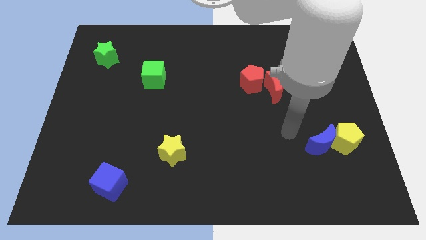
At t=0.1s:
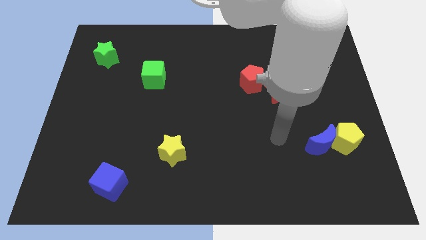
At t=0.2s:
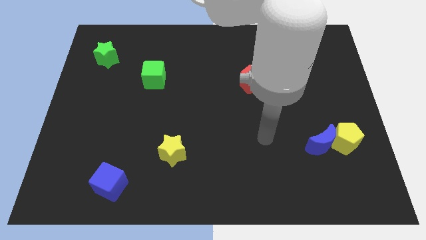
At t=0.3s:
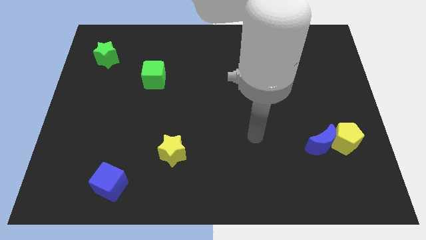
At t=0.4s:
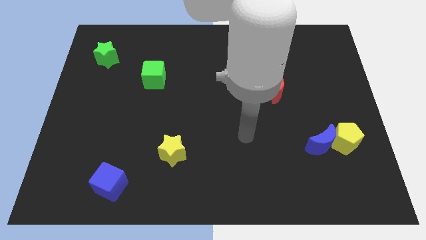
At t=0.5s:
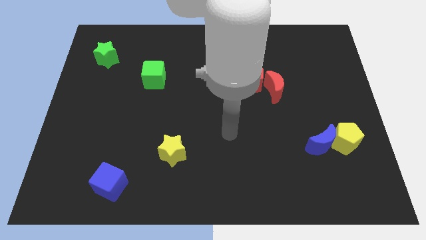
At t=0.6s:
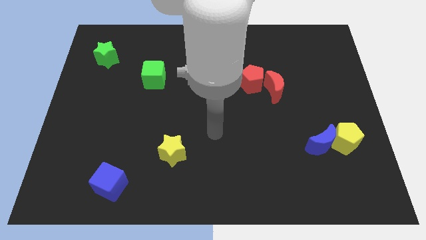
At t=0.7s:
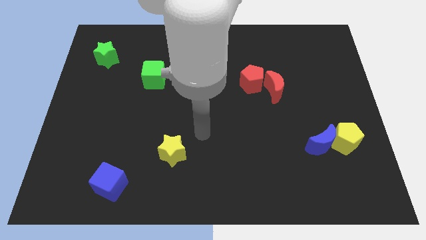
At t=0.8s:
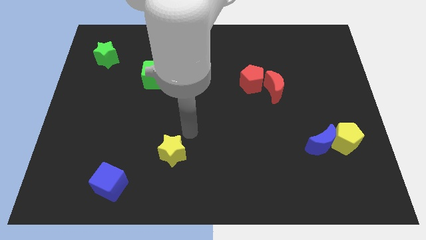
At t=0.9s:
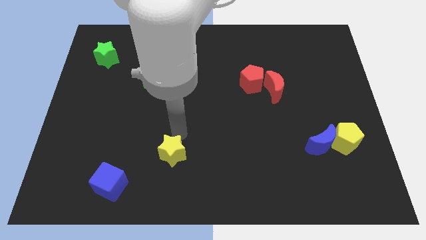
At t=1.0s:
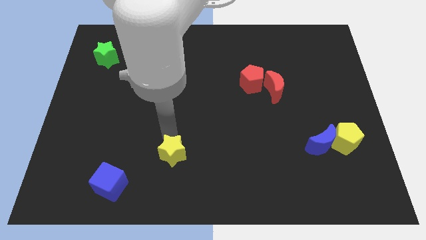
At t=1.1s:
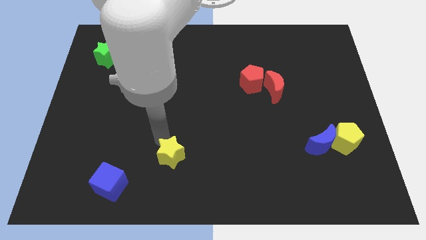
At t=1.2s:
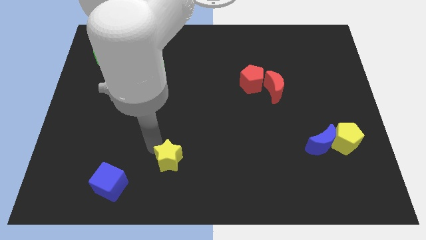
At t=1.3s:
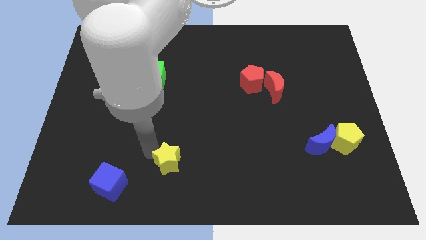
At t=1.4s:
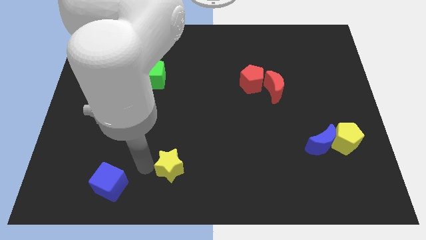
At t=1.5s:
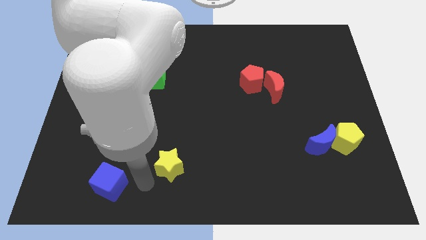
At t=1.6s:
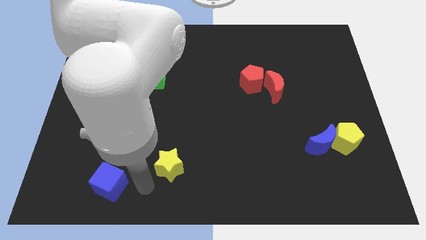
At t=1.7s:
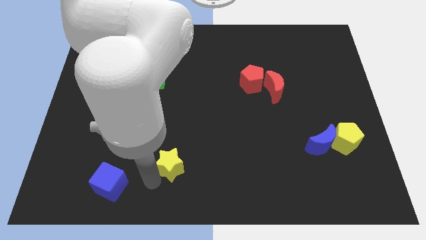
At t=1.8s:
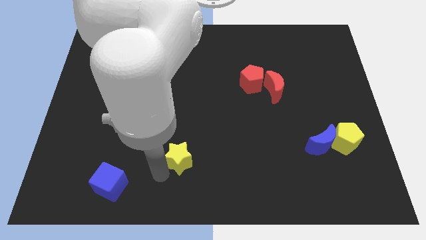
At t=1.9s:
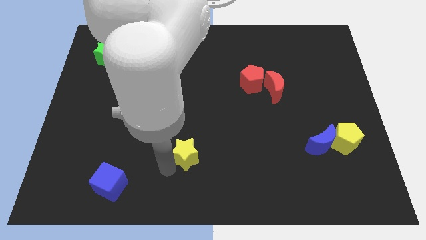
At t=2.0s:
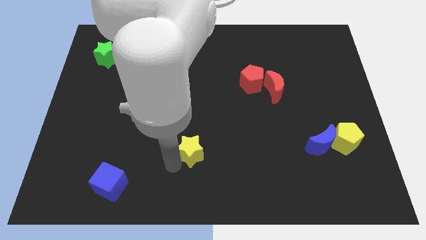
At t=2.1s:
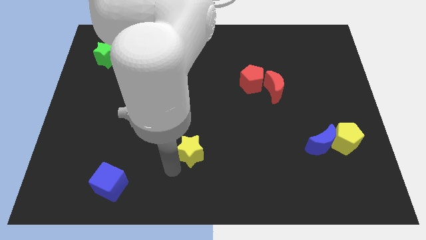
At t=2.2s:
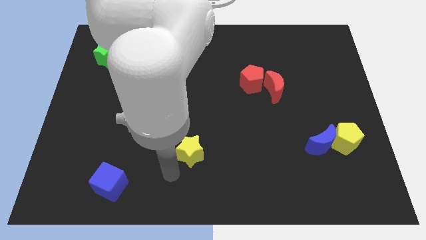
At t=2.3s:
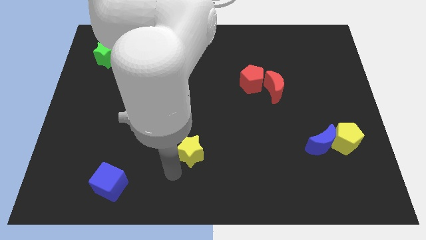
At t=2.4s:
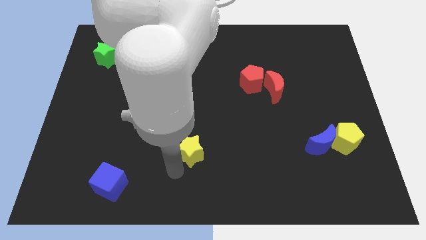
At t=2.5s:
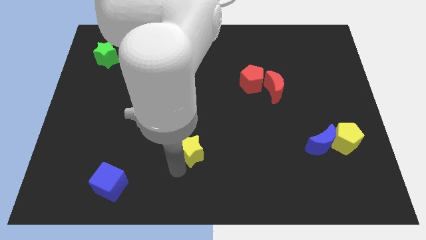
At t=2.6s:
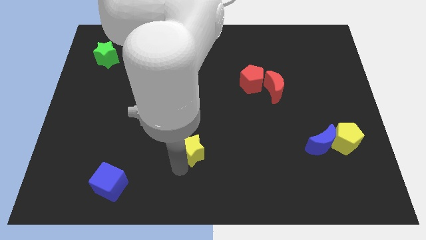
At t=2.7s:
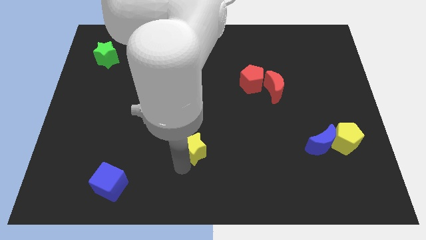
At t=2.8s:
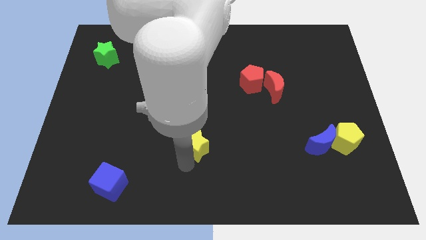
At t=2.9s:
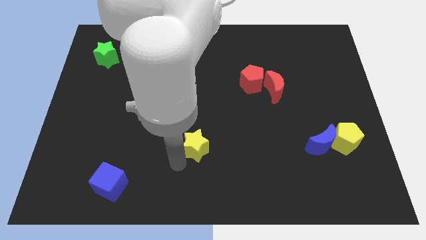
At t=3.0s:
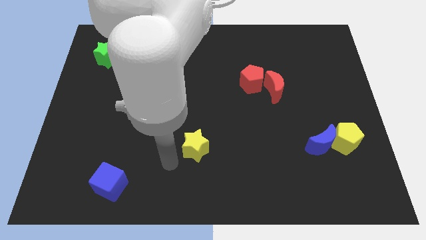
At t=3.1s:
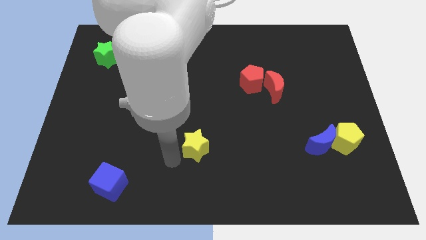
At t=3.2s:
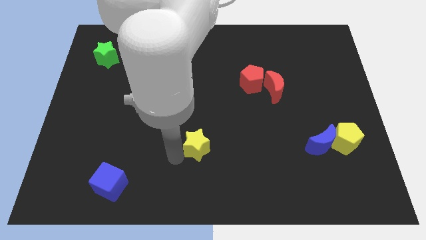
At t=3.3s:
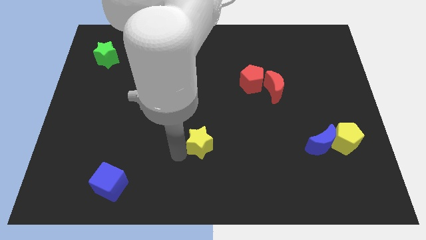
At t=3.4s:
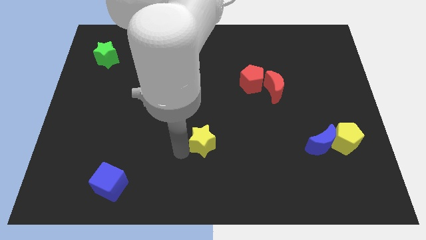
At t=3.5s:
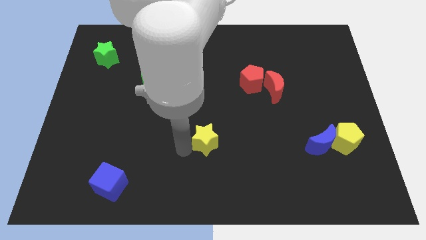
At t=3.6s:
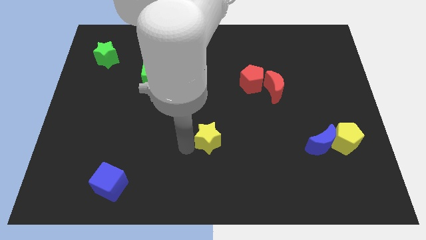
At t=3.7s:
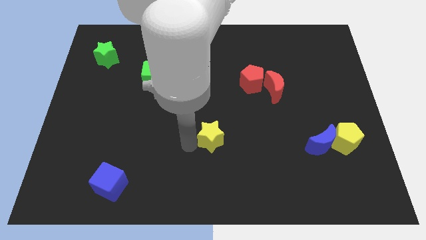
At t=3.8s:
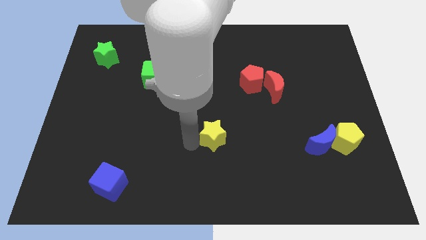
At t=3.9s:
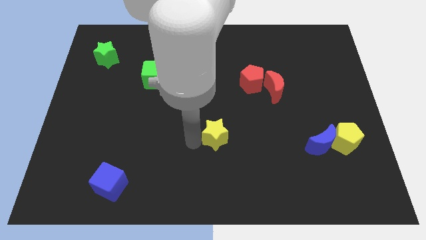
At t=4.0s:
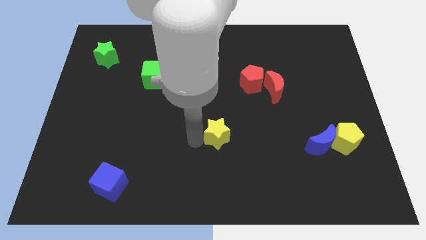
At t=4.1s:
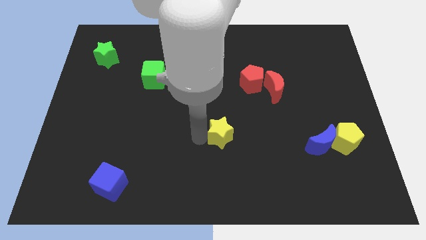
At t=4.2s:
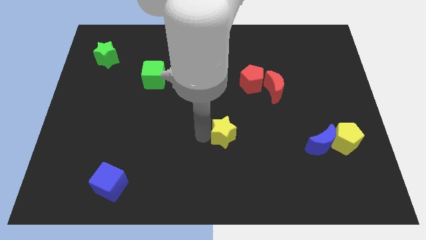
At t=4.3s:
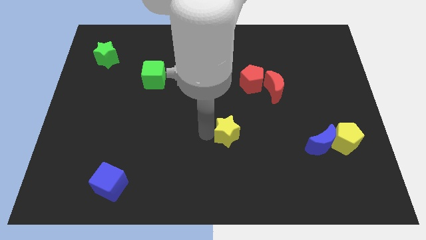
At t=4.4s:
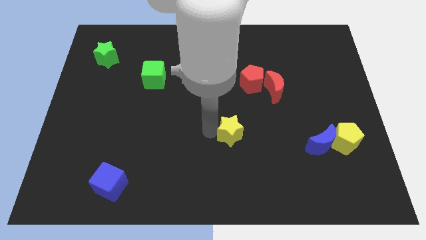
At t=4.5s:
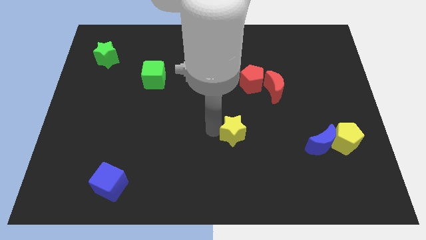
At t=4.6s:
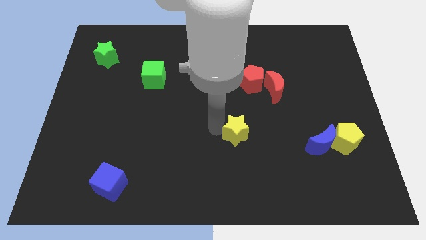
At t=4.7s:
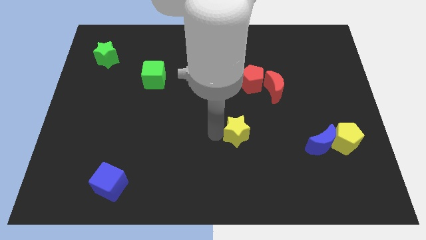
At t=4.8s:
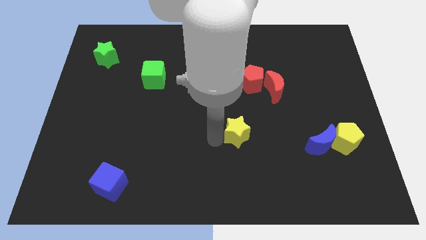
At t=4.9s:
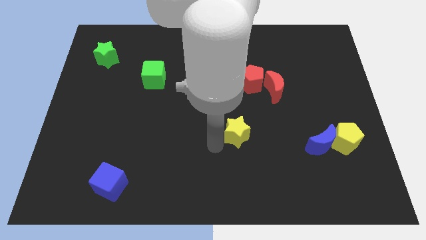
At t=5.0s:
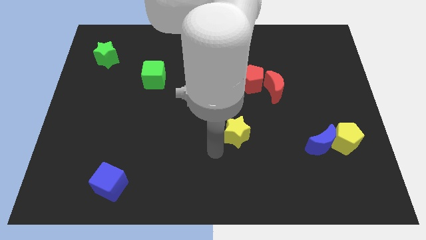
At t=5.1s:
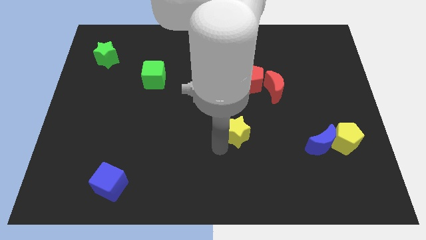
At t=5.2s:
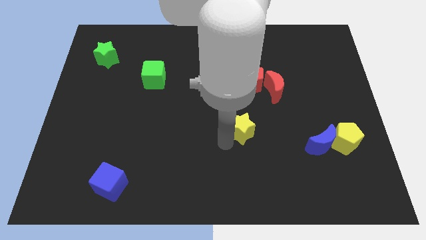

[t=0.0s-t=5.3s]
push the yellow star to the bottom of the red pentagon

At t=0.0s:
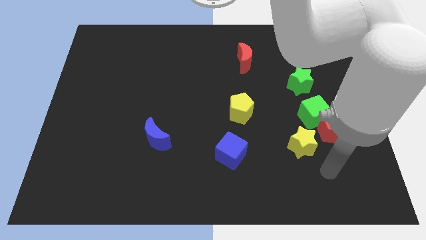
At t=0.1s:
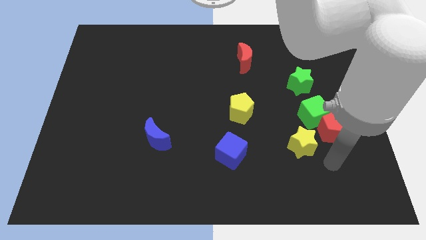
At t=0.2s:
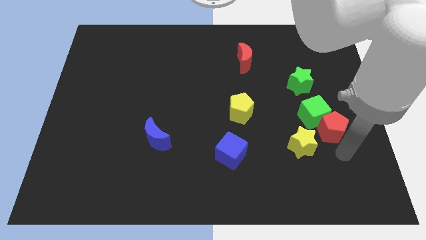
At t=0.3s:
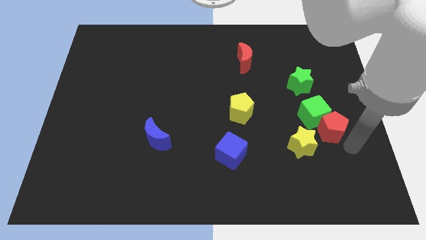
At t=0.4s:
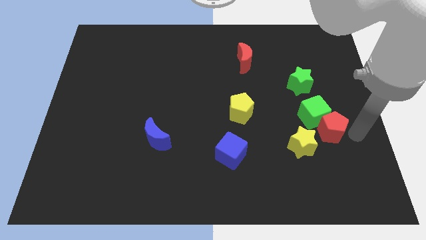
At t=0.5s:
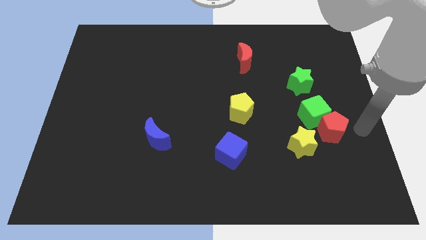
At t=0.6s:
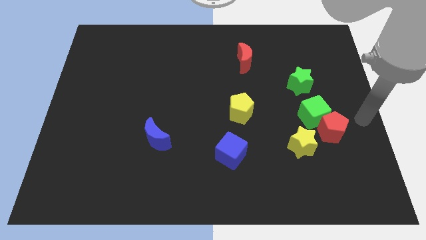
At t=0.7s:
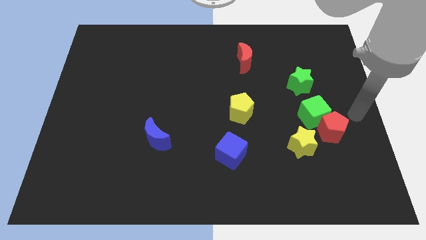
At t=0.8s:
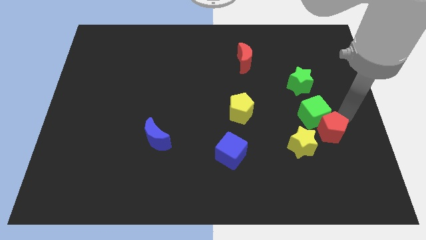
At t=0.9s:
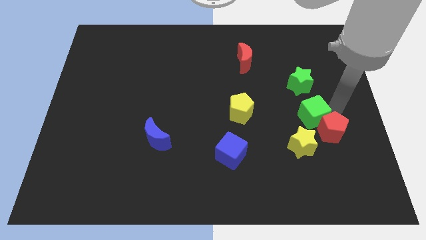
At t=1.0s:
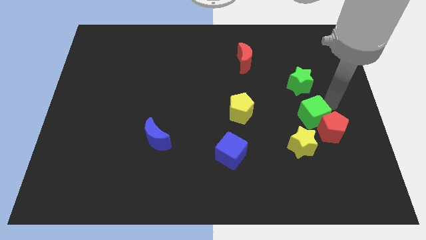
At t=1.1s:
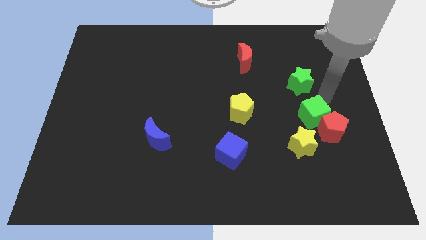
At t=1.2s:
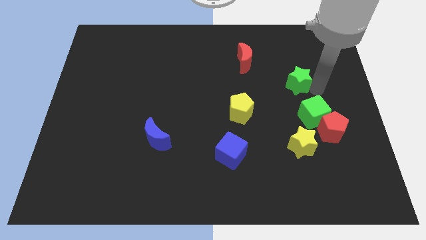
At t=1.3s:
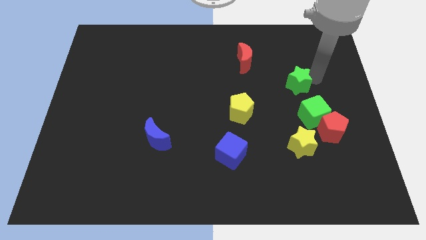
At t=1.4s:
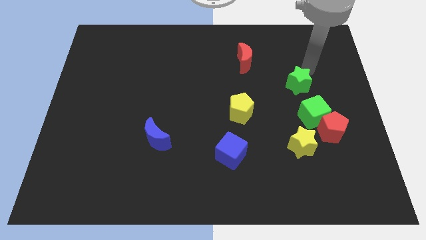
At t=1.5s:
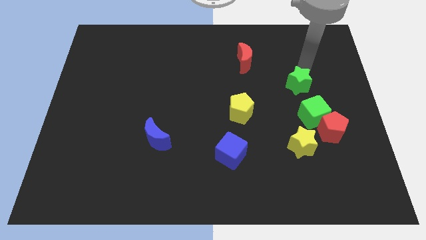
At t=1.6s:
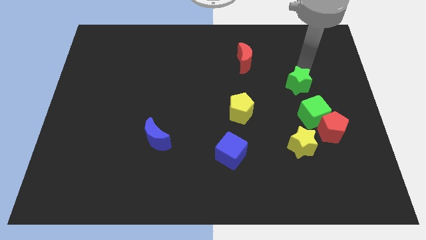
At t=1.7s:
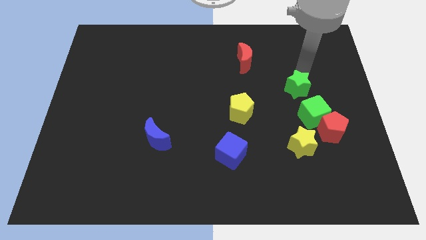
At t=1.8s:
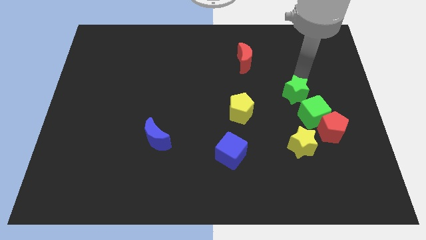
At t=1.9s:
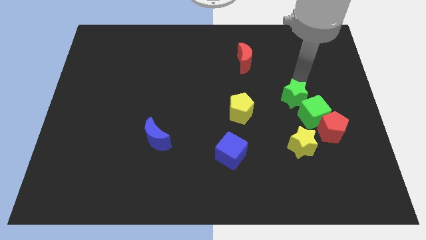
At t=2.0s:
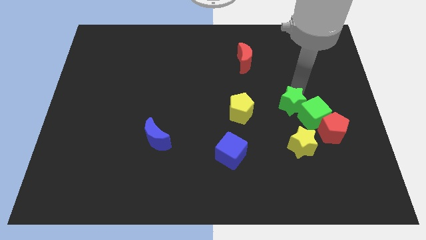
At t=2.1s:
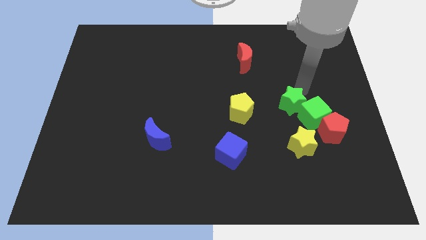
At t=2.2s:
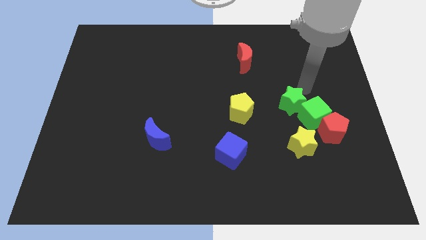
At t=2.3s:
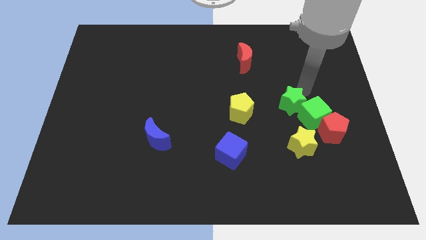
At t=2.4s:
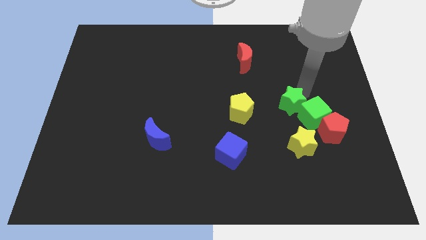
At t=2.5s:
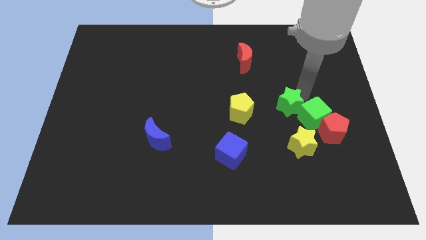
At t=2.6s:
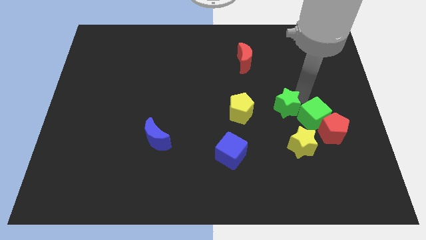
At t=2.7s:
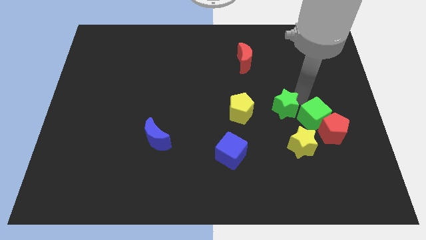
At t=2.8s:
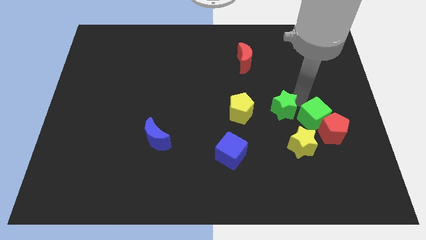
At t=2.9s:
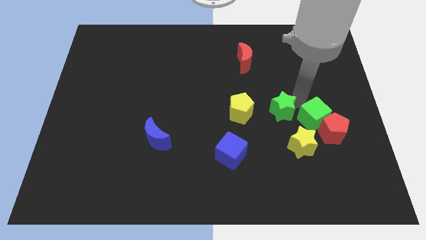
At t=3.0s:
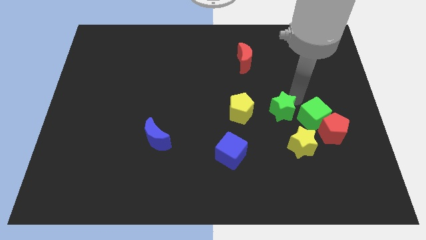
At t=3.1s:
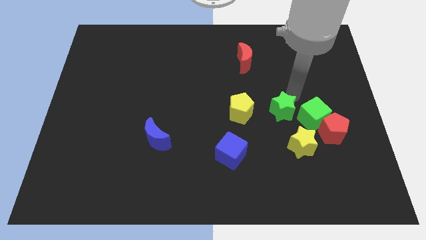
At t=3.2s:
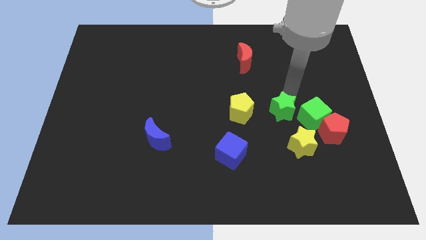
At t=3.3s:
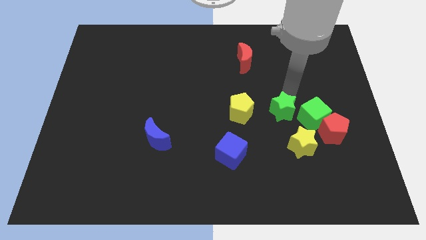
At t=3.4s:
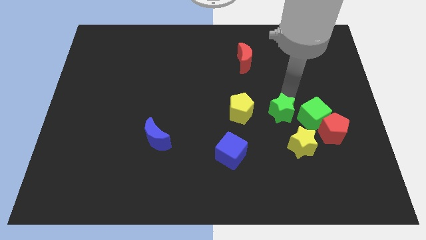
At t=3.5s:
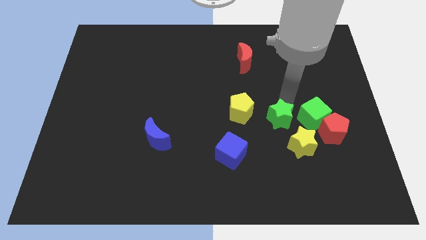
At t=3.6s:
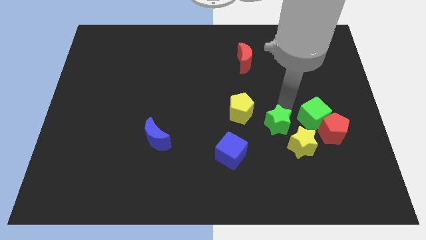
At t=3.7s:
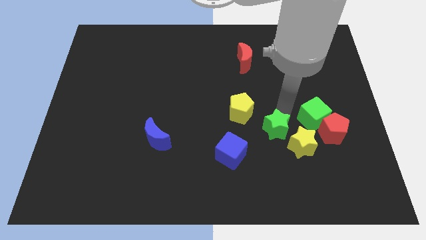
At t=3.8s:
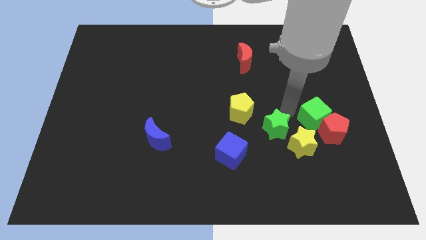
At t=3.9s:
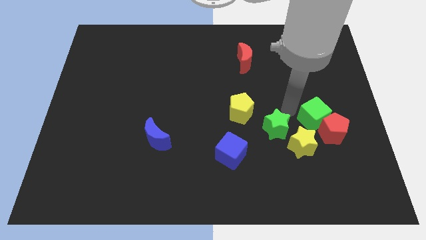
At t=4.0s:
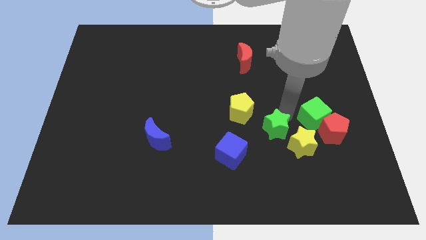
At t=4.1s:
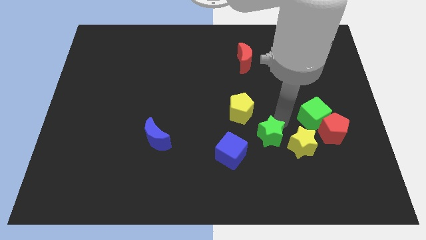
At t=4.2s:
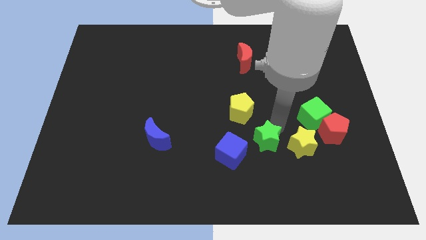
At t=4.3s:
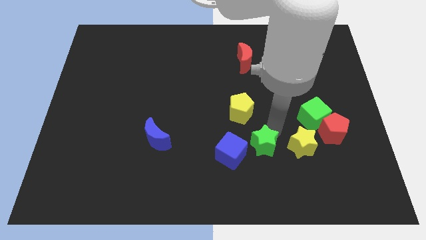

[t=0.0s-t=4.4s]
push the green star to the bottom of the yellow pentagon
